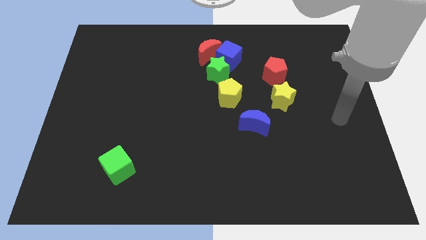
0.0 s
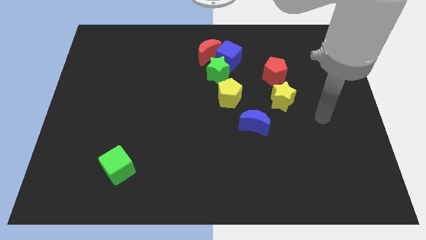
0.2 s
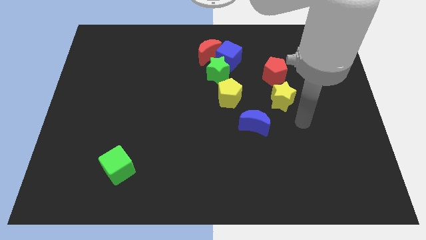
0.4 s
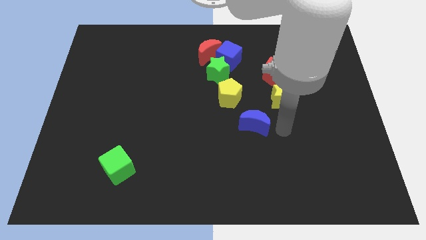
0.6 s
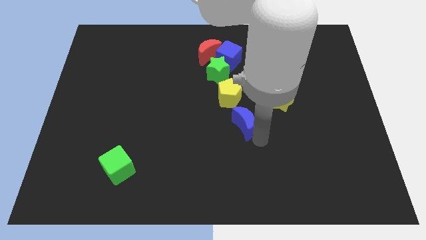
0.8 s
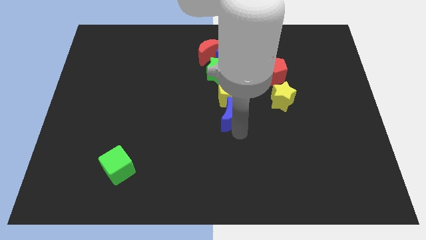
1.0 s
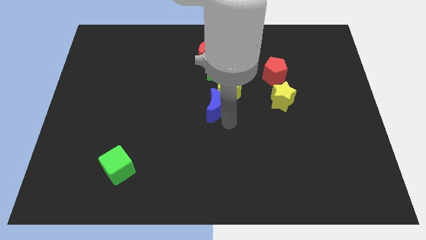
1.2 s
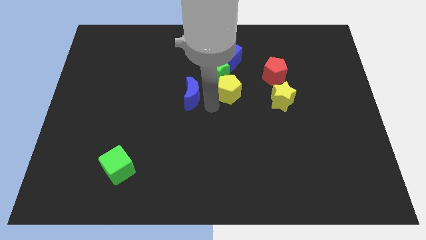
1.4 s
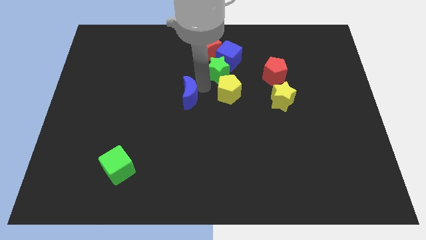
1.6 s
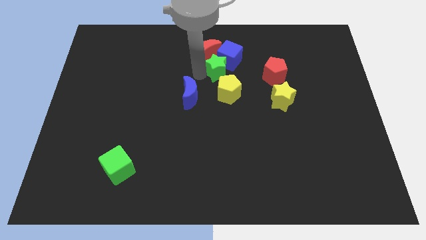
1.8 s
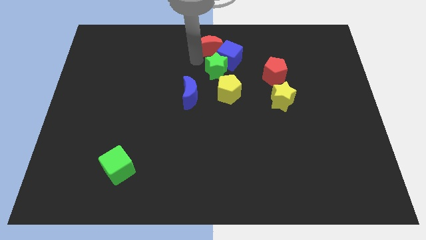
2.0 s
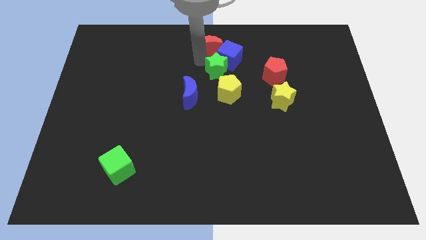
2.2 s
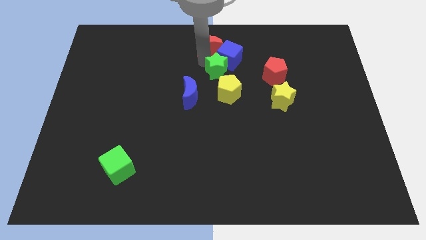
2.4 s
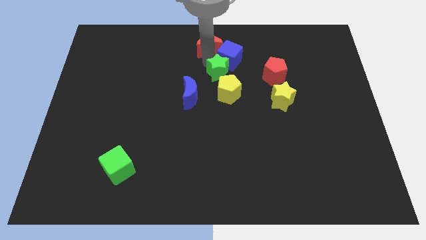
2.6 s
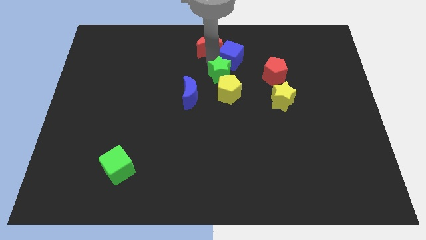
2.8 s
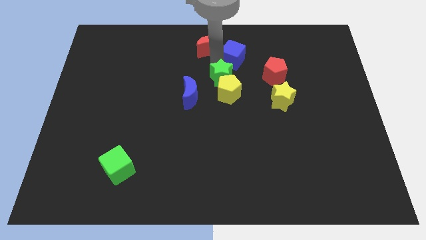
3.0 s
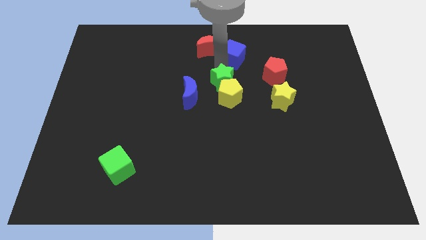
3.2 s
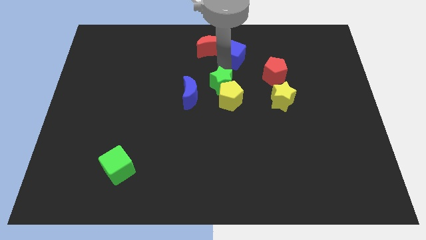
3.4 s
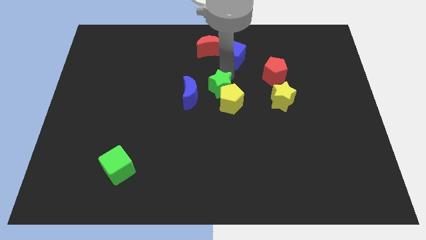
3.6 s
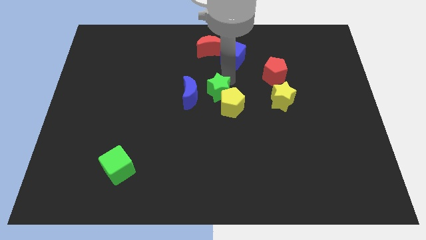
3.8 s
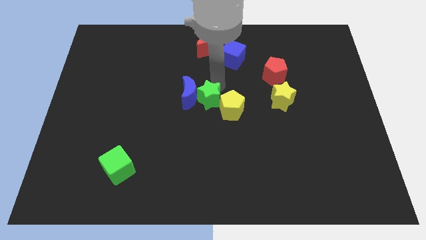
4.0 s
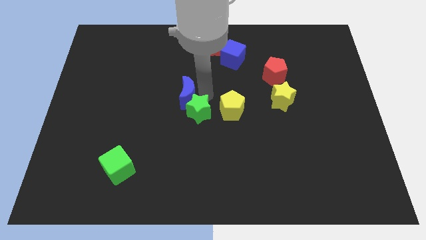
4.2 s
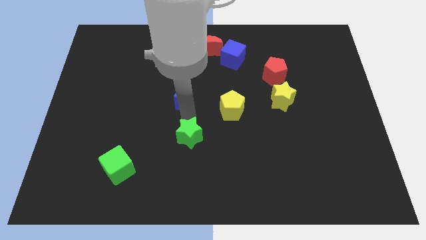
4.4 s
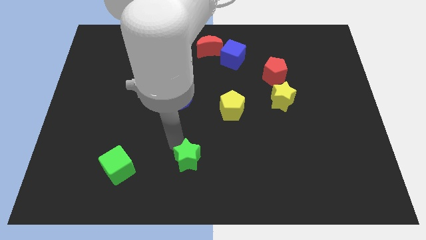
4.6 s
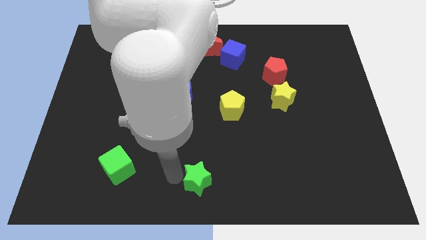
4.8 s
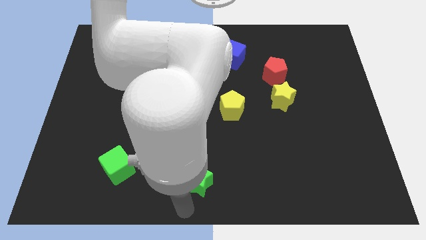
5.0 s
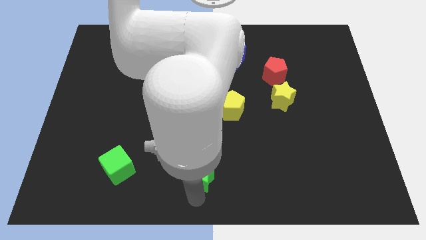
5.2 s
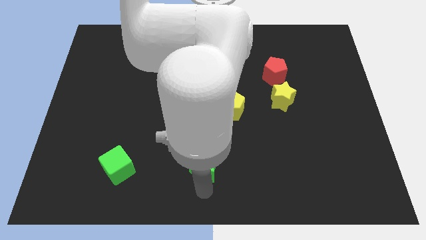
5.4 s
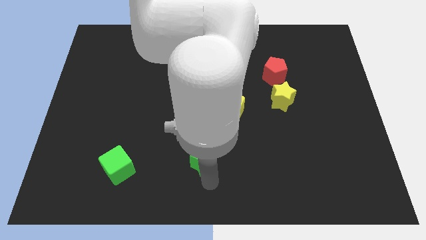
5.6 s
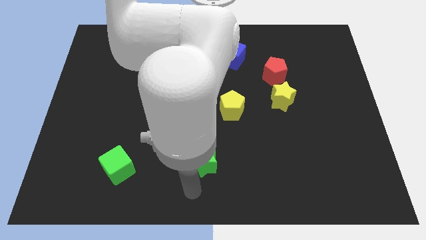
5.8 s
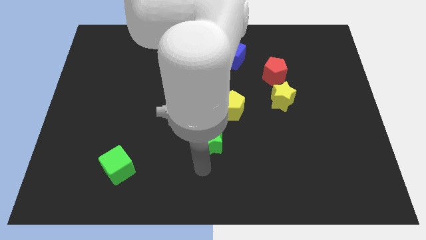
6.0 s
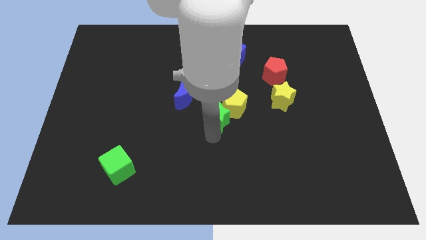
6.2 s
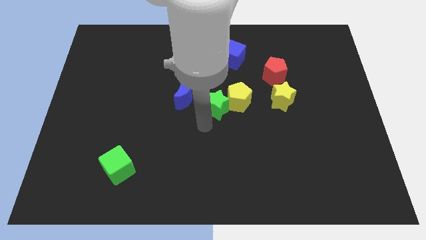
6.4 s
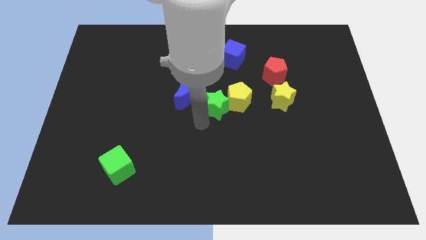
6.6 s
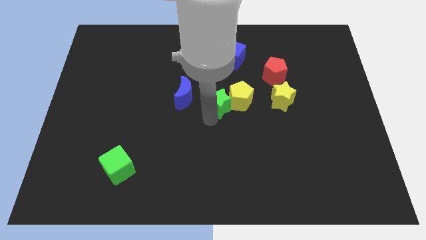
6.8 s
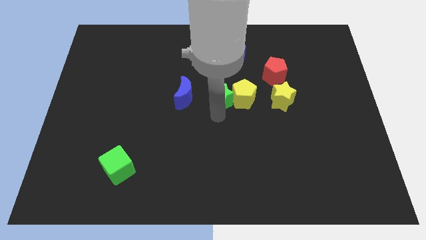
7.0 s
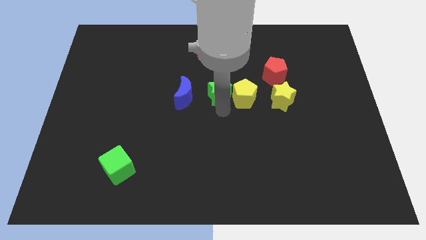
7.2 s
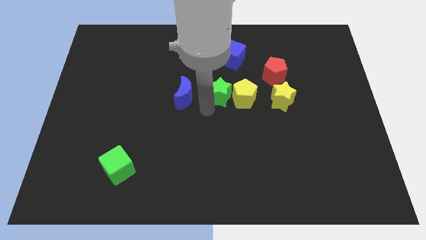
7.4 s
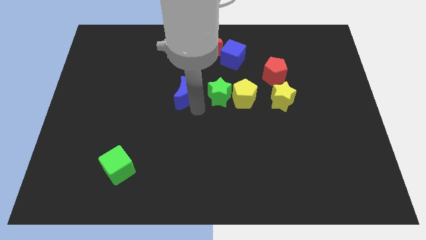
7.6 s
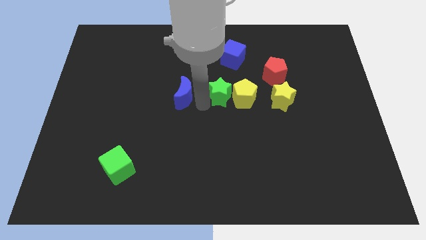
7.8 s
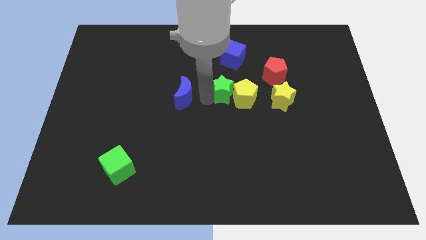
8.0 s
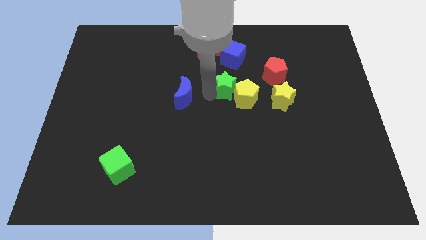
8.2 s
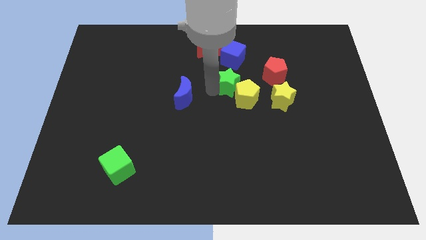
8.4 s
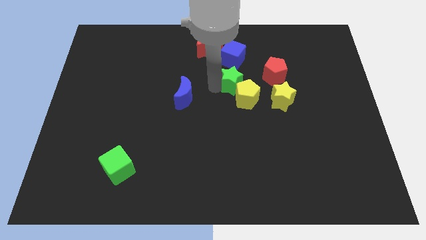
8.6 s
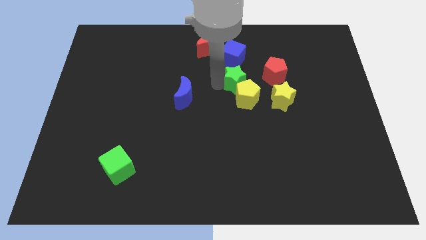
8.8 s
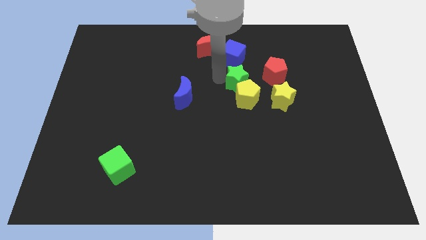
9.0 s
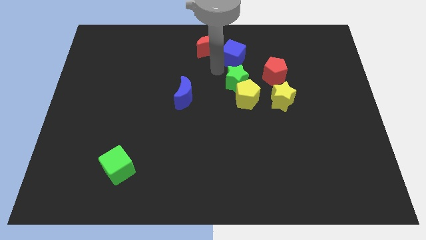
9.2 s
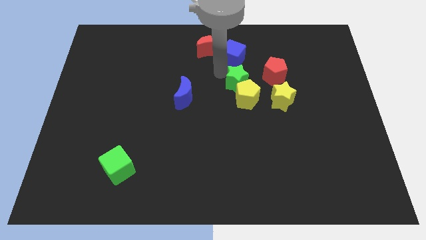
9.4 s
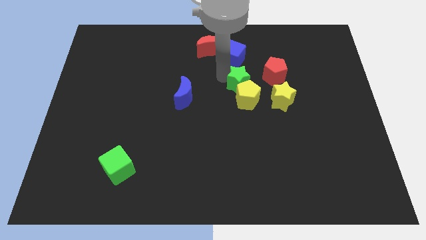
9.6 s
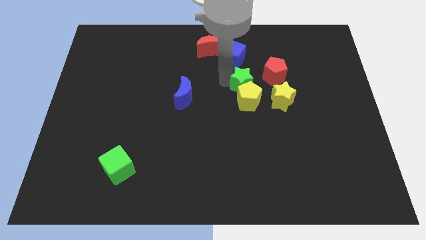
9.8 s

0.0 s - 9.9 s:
slightly push the green star down and then to the right

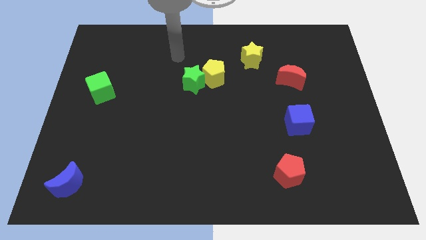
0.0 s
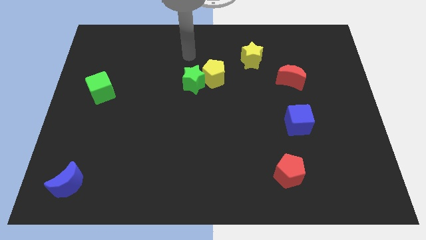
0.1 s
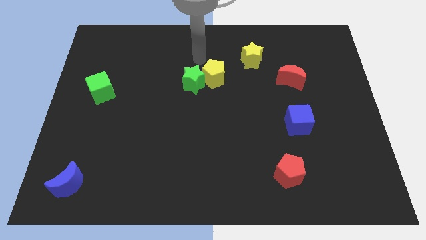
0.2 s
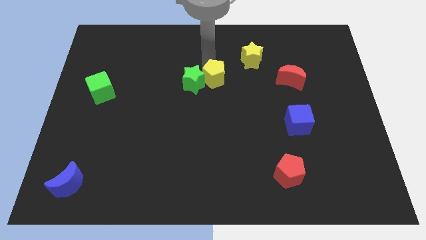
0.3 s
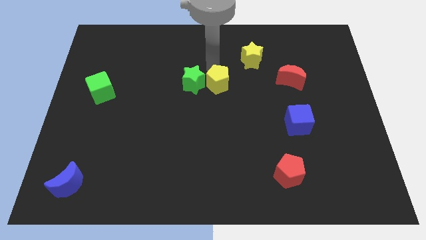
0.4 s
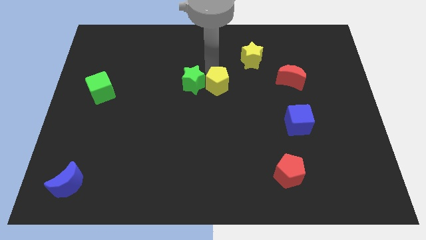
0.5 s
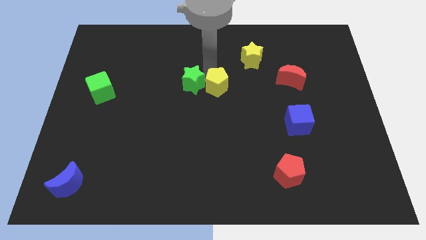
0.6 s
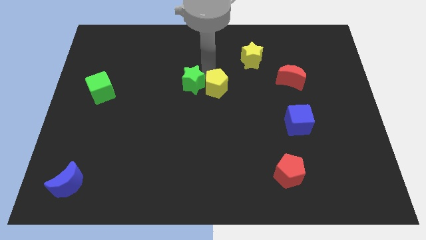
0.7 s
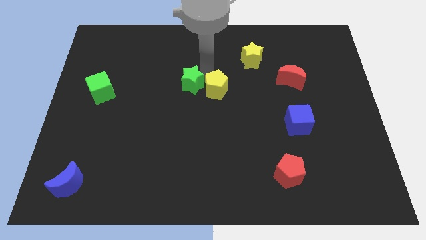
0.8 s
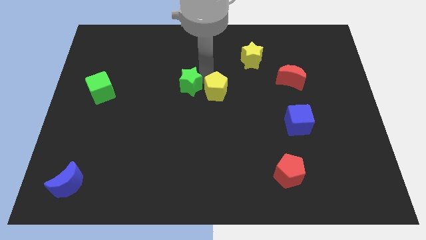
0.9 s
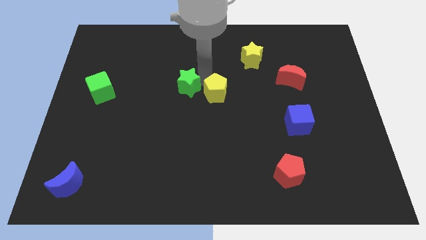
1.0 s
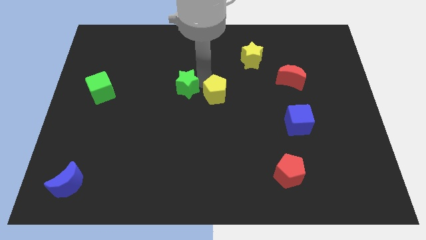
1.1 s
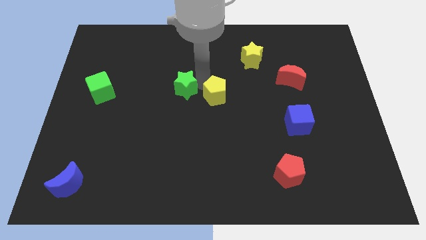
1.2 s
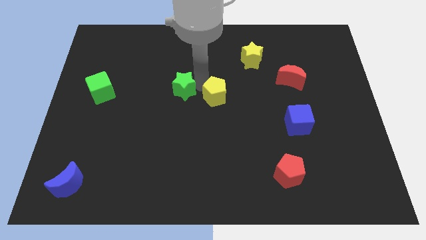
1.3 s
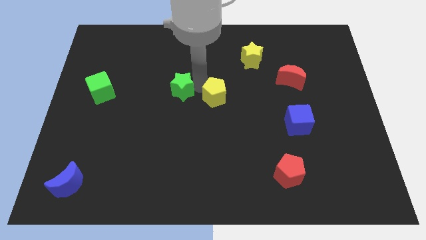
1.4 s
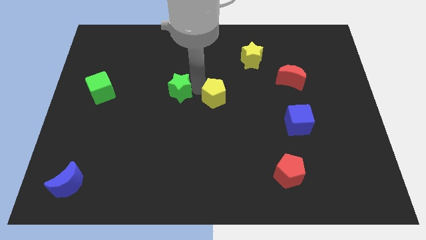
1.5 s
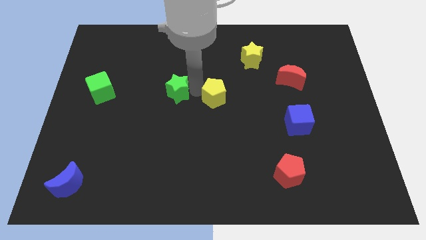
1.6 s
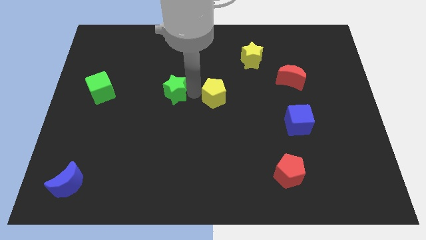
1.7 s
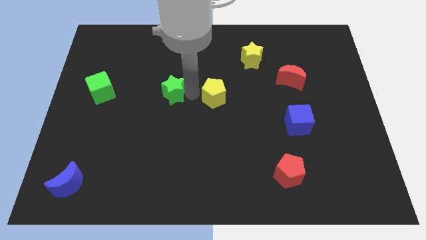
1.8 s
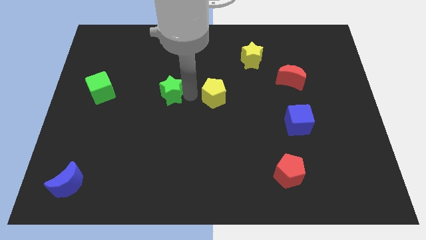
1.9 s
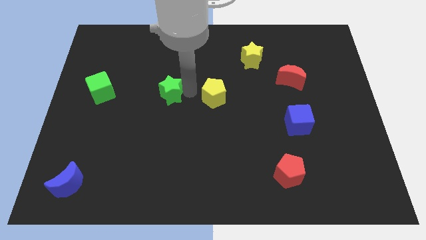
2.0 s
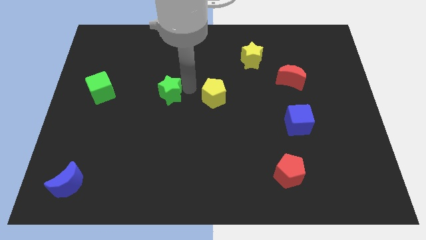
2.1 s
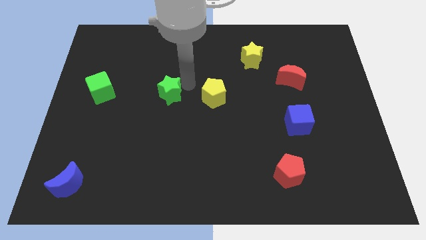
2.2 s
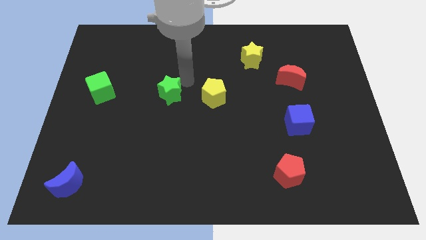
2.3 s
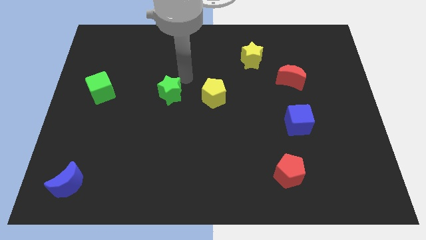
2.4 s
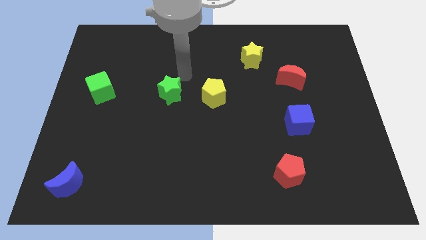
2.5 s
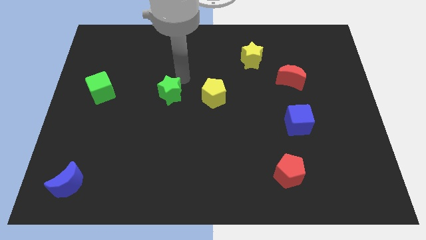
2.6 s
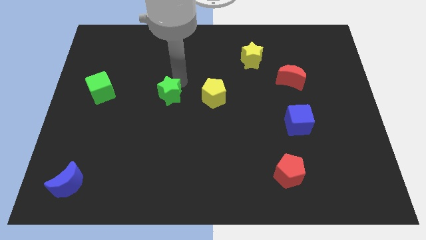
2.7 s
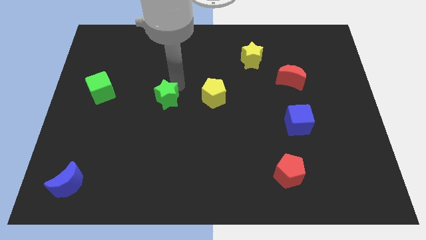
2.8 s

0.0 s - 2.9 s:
move the green star a little bit down and to the left diagonally

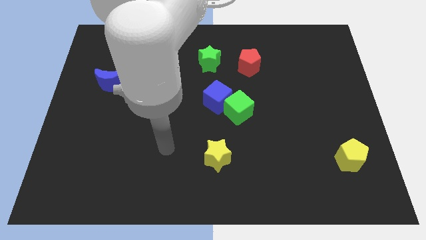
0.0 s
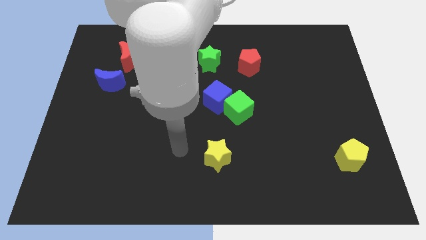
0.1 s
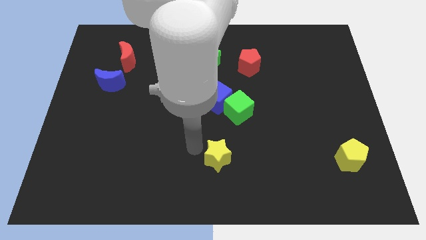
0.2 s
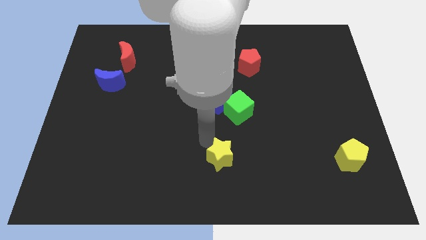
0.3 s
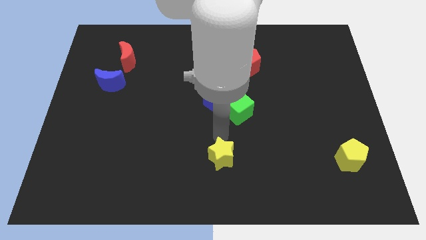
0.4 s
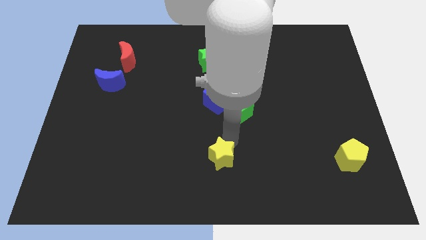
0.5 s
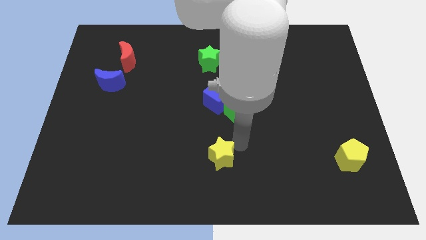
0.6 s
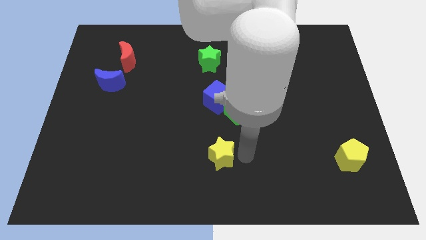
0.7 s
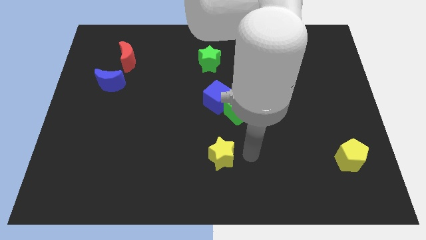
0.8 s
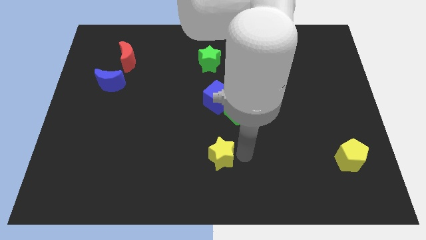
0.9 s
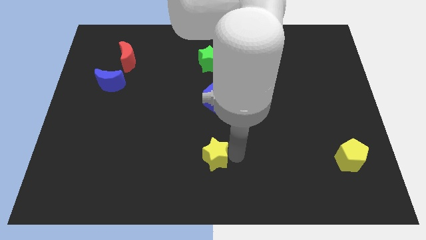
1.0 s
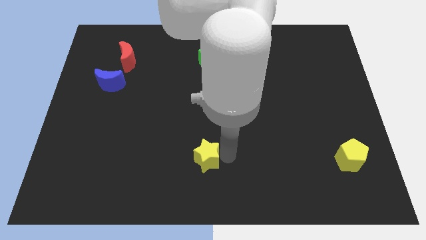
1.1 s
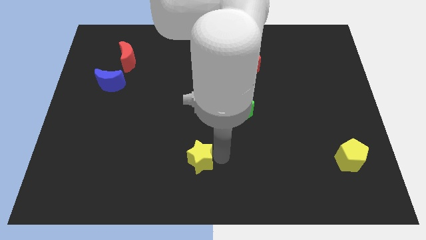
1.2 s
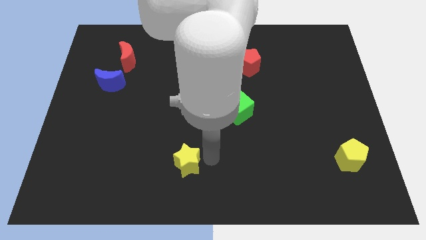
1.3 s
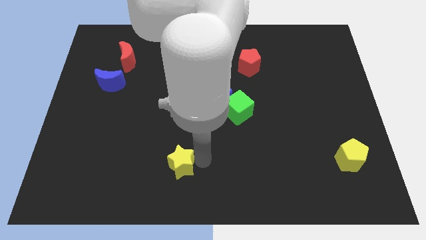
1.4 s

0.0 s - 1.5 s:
slide the yellow star left slightly
